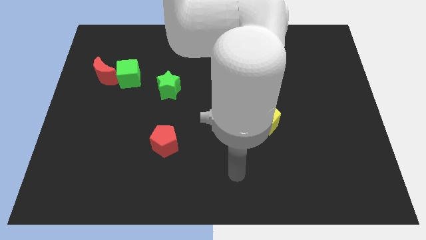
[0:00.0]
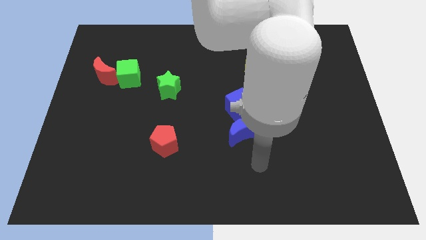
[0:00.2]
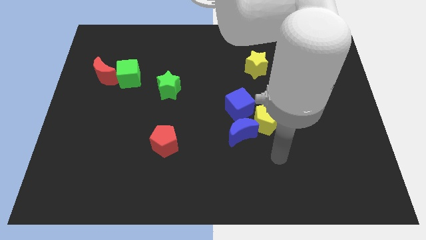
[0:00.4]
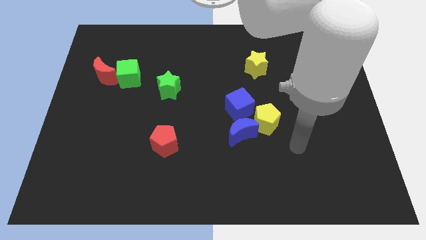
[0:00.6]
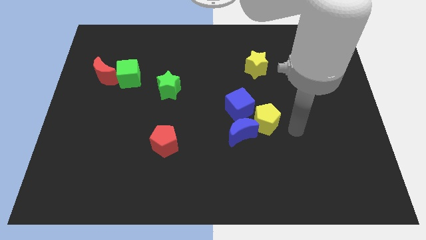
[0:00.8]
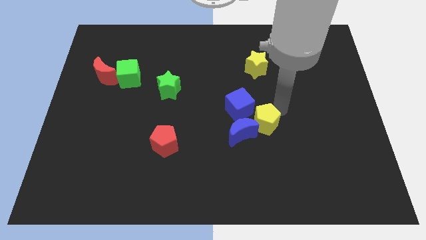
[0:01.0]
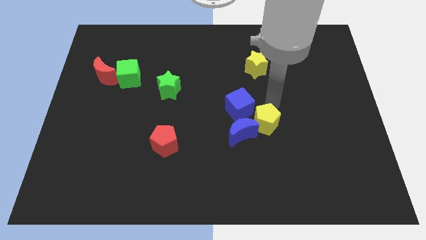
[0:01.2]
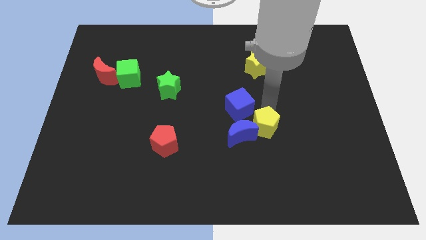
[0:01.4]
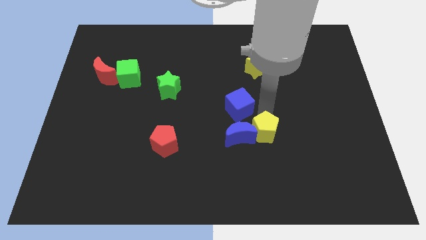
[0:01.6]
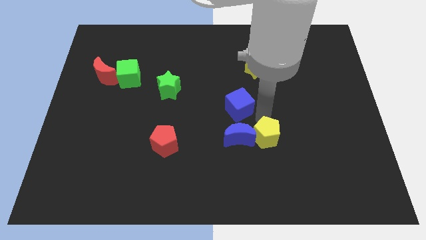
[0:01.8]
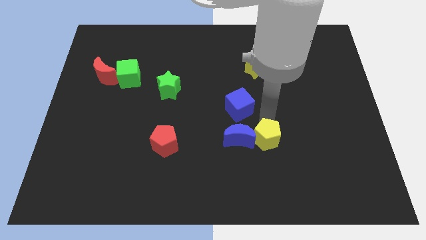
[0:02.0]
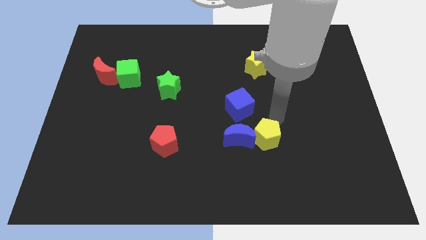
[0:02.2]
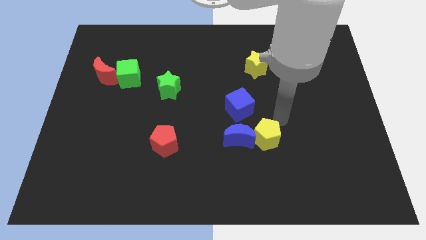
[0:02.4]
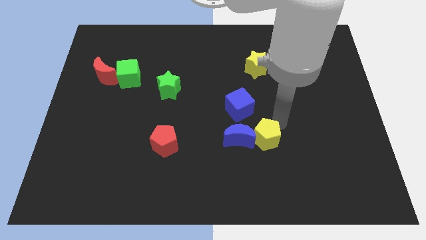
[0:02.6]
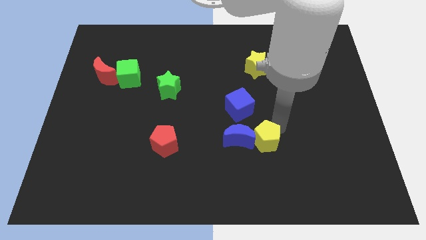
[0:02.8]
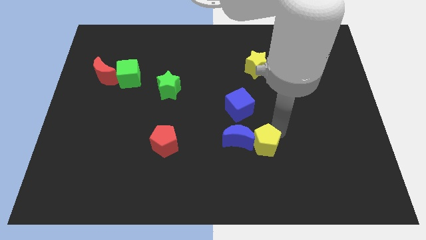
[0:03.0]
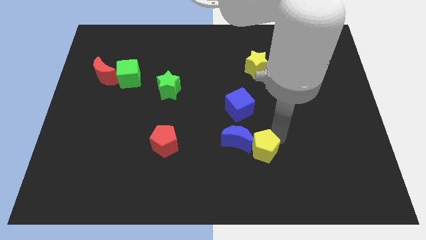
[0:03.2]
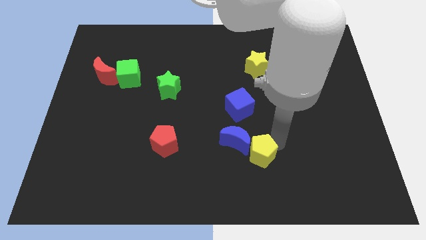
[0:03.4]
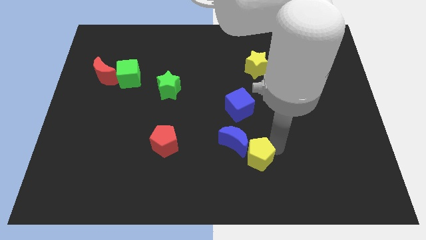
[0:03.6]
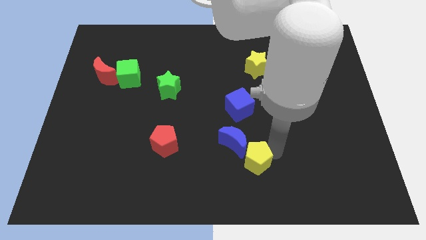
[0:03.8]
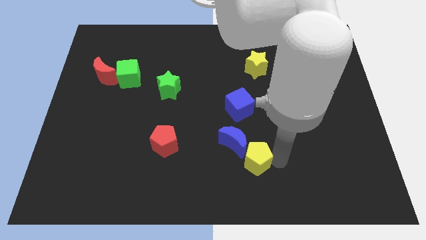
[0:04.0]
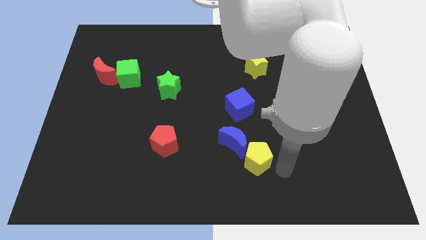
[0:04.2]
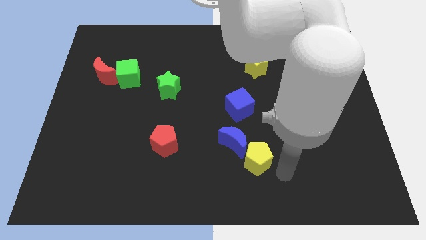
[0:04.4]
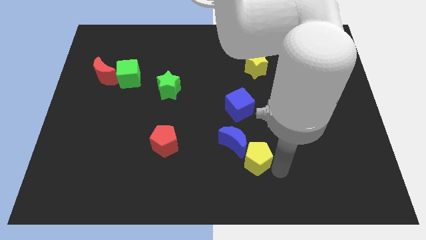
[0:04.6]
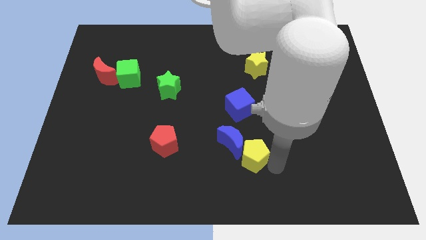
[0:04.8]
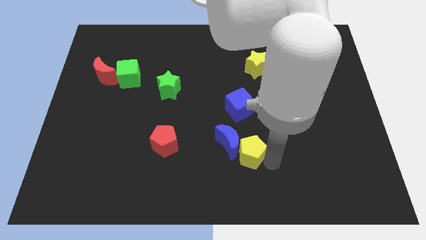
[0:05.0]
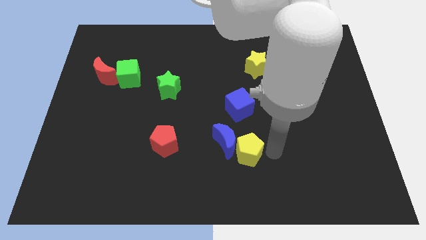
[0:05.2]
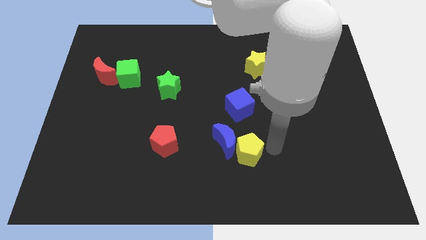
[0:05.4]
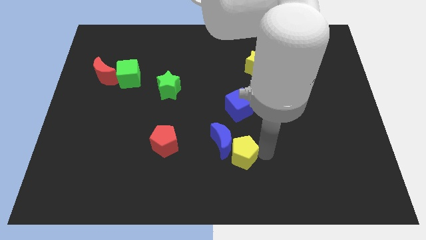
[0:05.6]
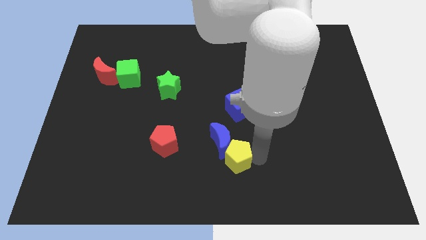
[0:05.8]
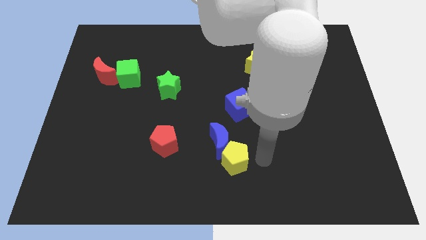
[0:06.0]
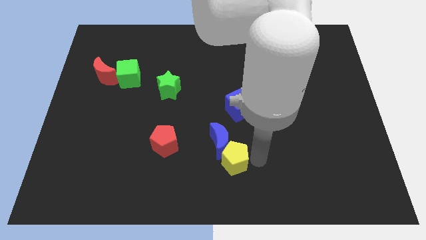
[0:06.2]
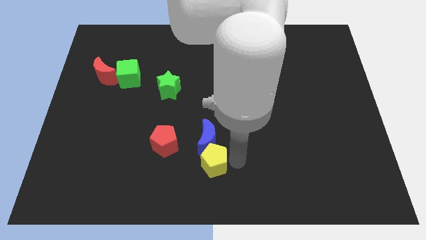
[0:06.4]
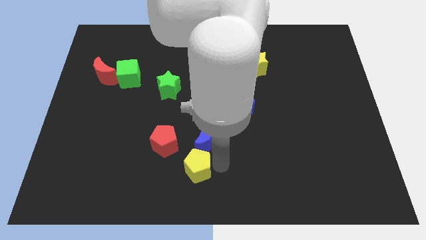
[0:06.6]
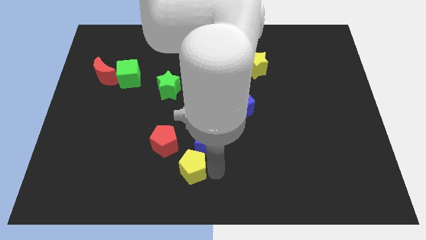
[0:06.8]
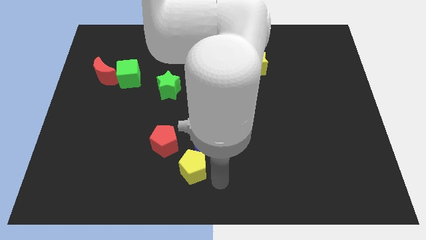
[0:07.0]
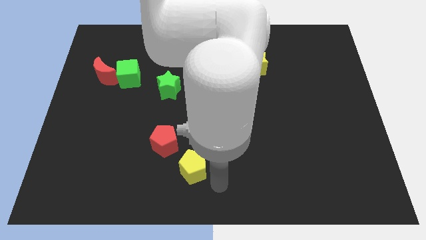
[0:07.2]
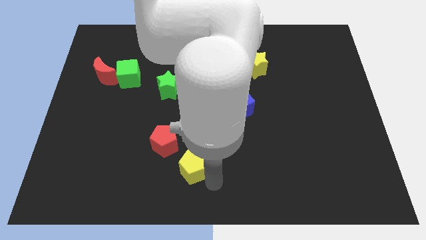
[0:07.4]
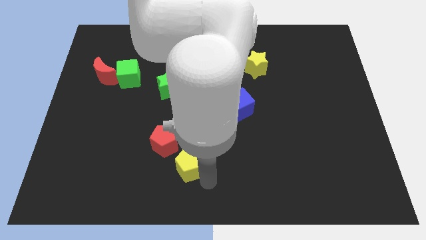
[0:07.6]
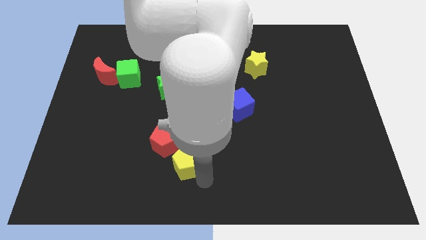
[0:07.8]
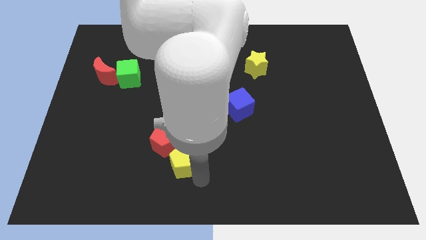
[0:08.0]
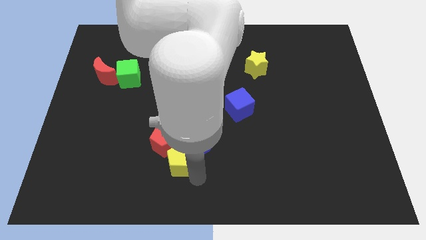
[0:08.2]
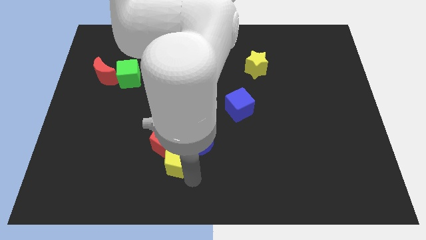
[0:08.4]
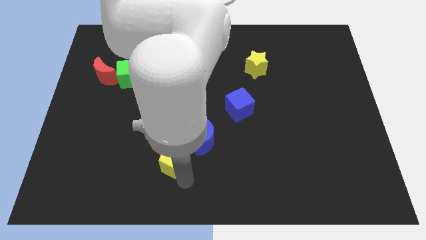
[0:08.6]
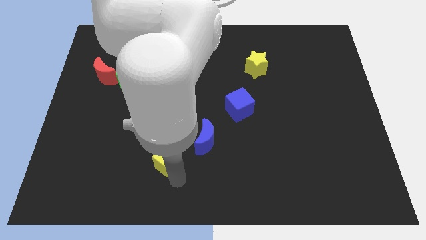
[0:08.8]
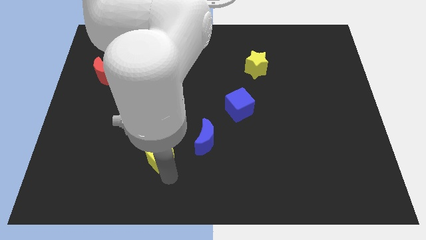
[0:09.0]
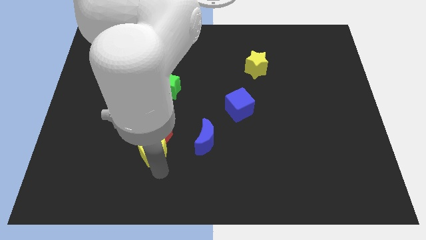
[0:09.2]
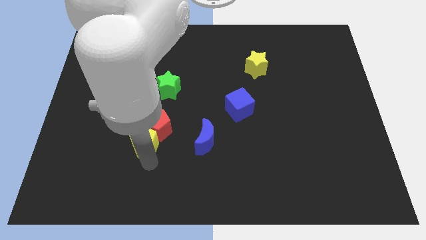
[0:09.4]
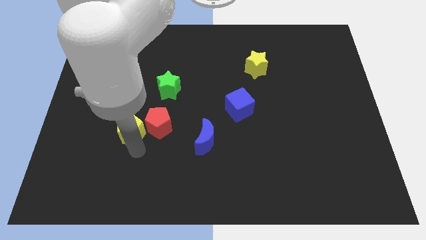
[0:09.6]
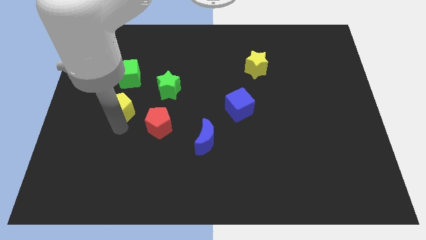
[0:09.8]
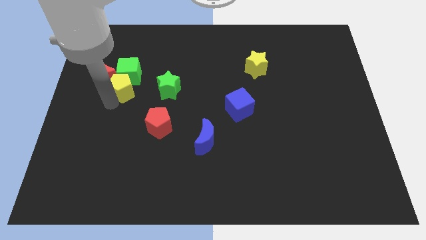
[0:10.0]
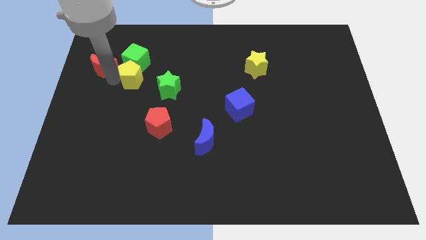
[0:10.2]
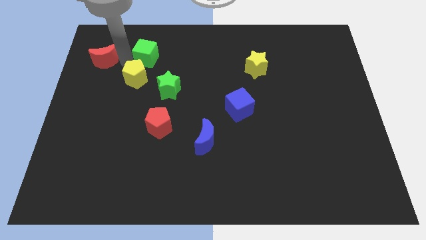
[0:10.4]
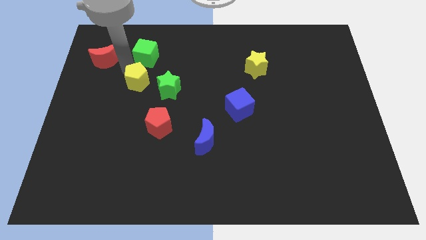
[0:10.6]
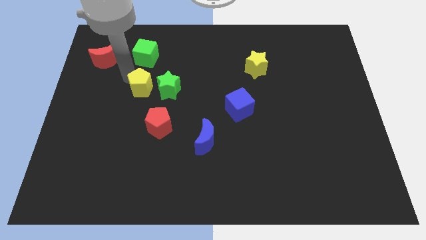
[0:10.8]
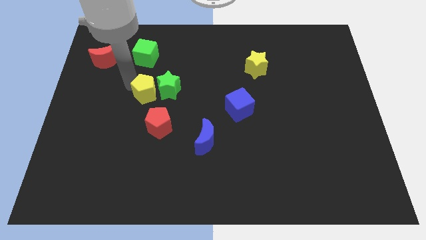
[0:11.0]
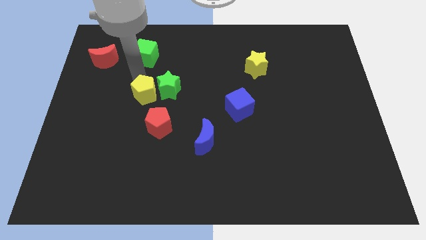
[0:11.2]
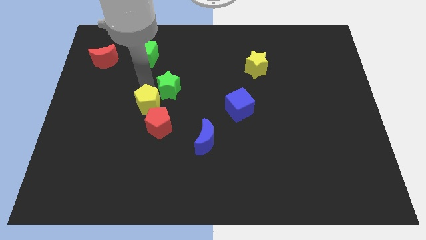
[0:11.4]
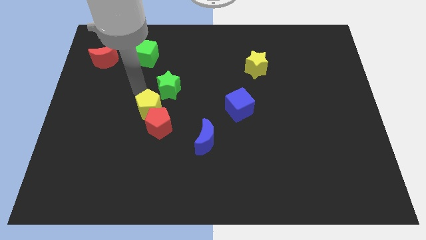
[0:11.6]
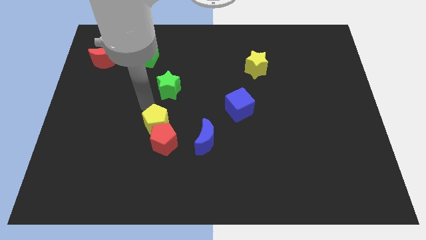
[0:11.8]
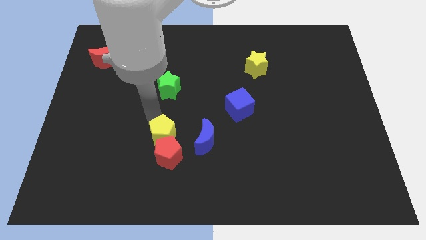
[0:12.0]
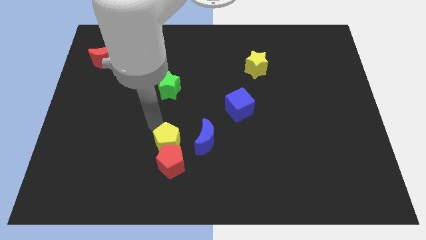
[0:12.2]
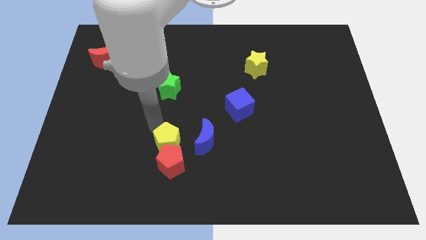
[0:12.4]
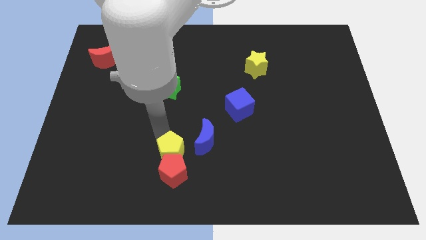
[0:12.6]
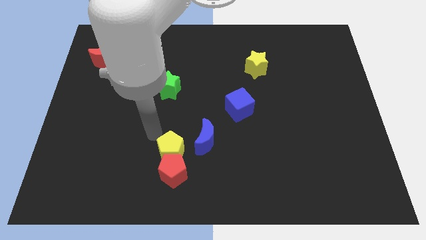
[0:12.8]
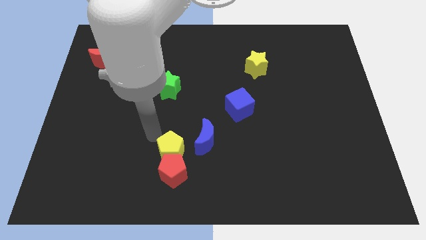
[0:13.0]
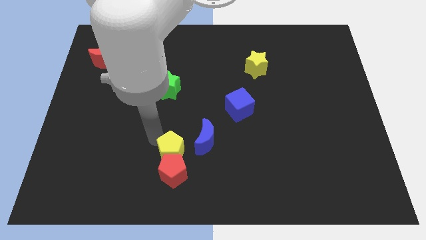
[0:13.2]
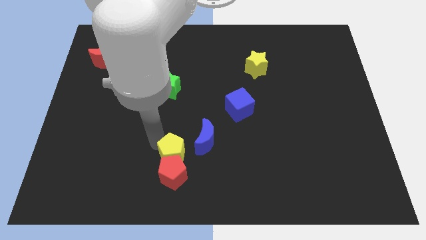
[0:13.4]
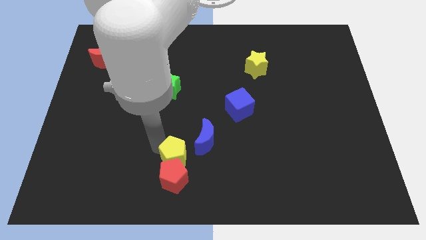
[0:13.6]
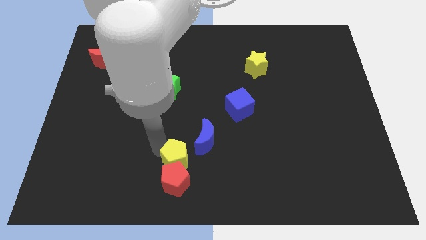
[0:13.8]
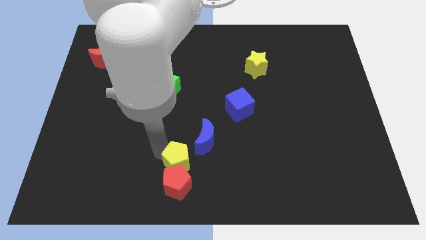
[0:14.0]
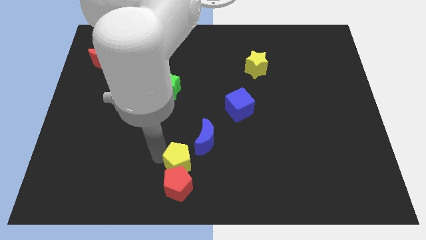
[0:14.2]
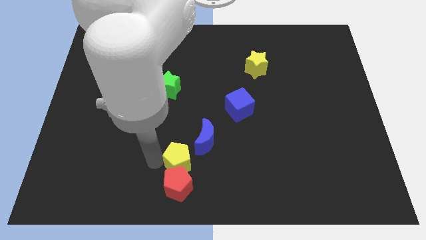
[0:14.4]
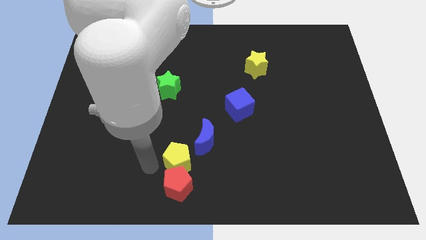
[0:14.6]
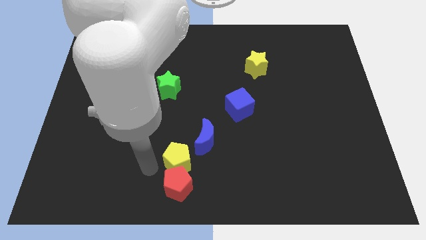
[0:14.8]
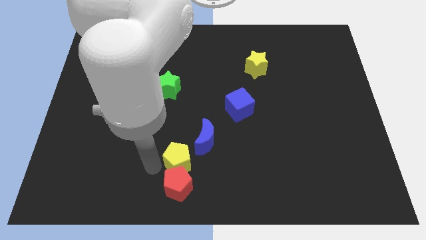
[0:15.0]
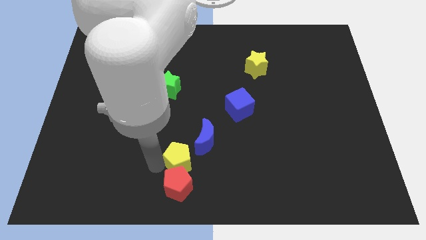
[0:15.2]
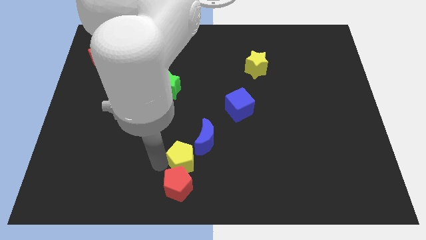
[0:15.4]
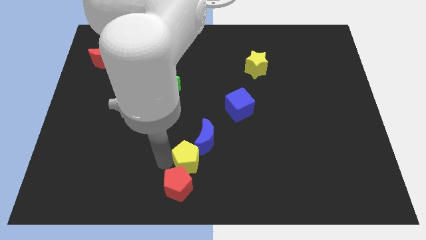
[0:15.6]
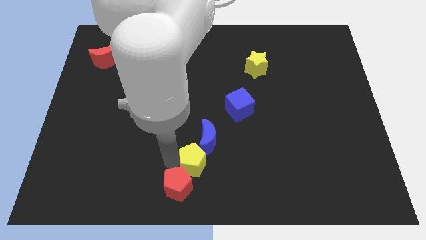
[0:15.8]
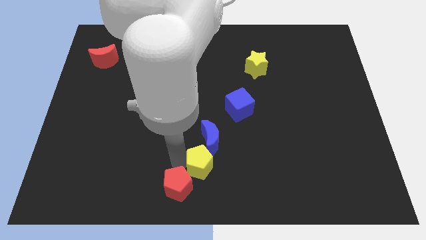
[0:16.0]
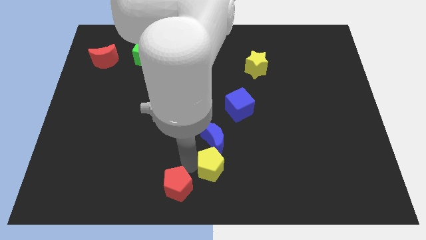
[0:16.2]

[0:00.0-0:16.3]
move the yellow pentagon to the bottom left of the blue moon
